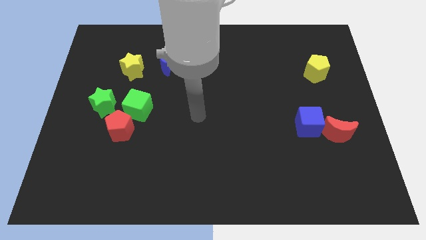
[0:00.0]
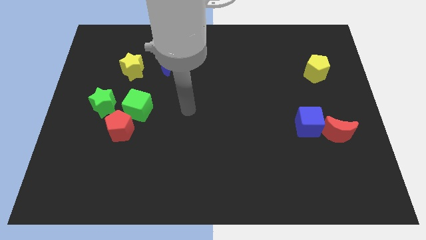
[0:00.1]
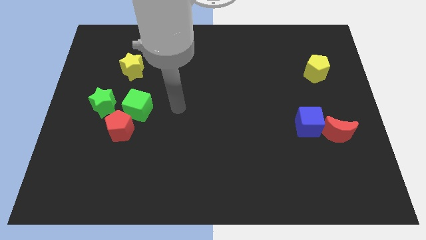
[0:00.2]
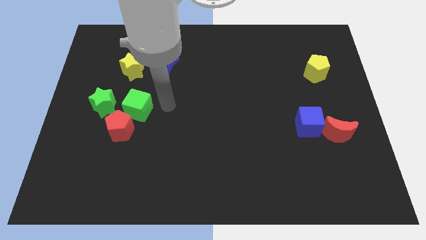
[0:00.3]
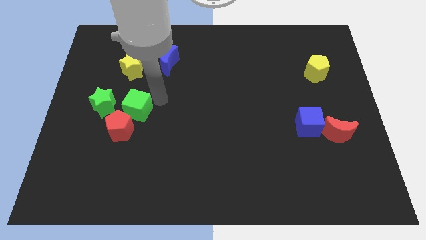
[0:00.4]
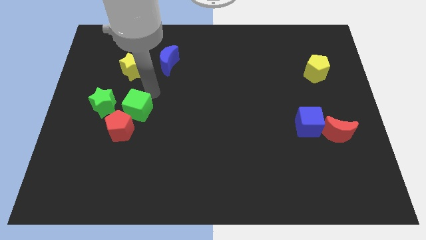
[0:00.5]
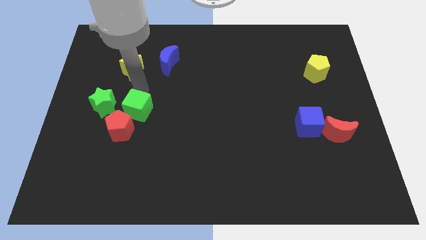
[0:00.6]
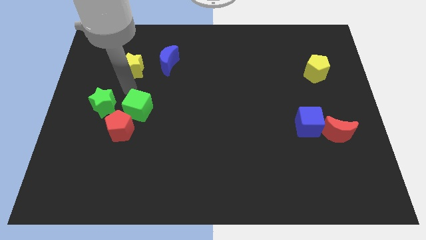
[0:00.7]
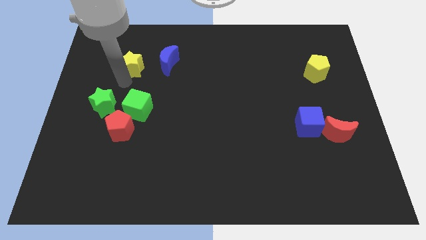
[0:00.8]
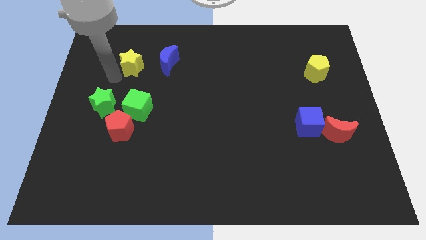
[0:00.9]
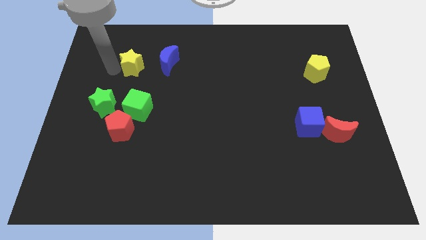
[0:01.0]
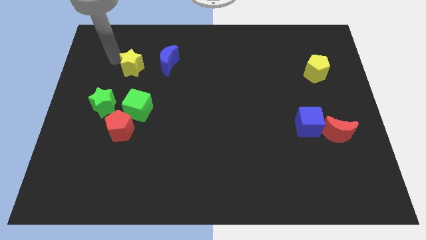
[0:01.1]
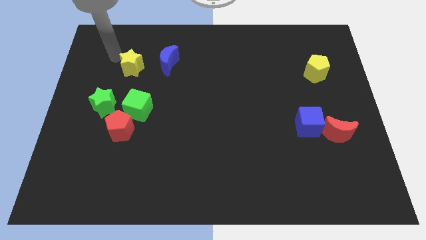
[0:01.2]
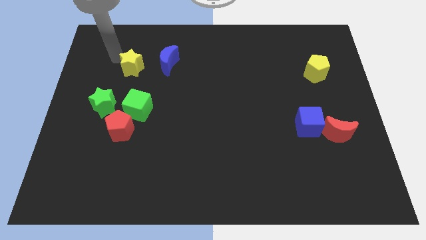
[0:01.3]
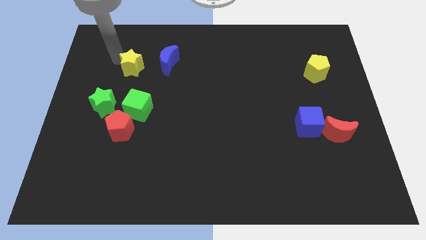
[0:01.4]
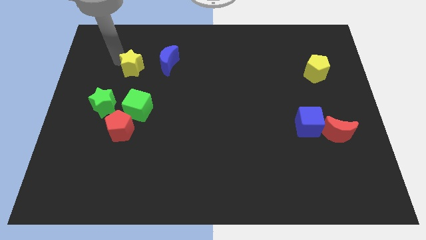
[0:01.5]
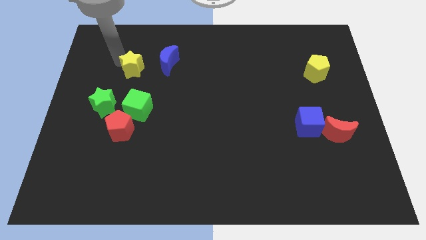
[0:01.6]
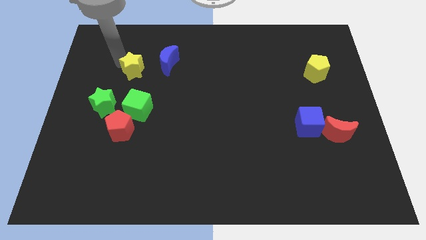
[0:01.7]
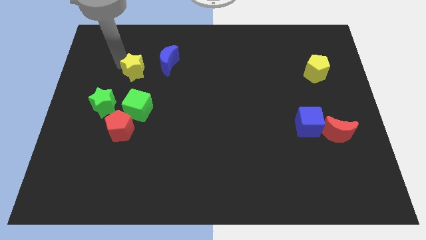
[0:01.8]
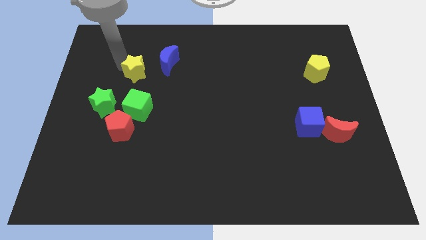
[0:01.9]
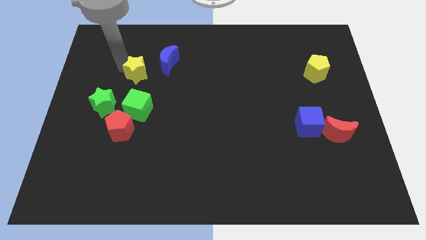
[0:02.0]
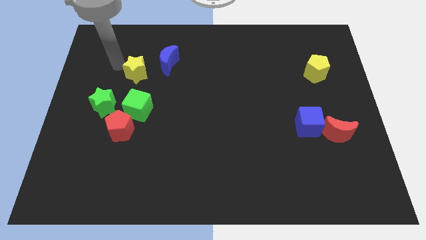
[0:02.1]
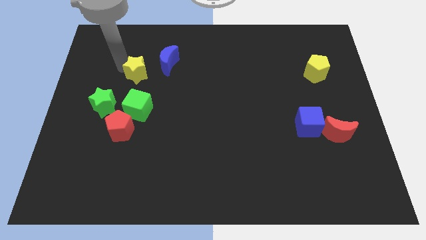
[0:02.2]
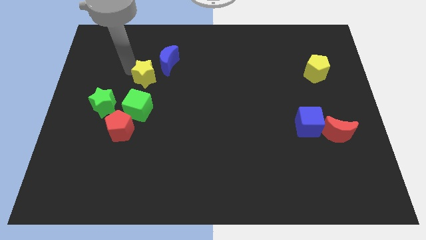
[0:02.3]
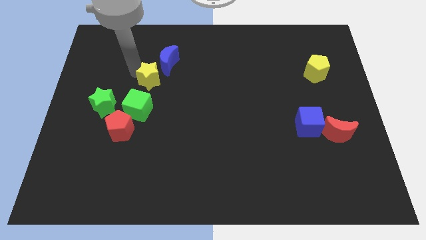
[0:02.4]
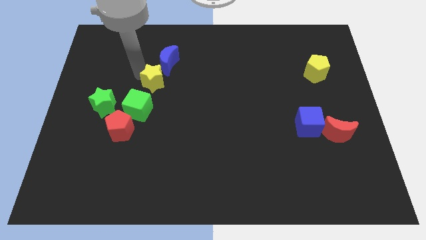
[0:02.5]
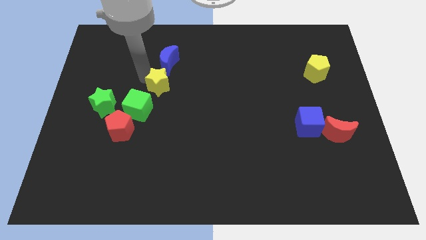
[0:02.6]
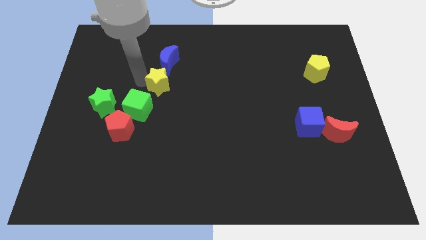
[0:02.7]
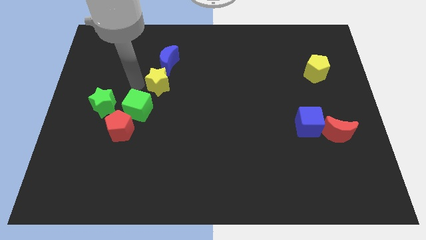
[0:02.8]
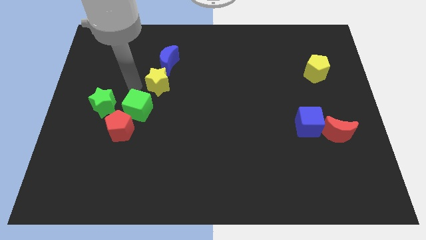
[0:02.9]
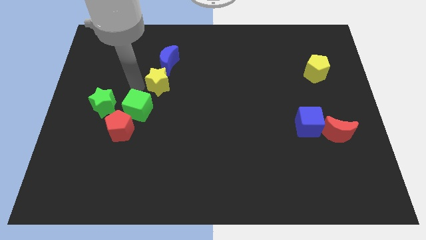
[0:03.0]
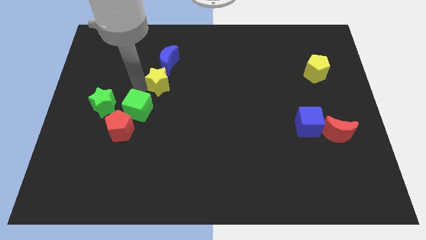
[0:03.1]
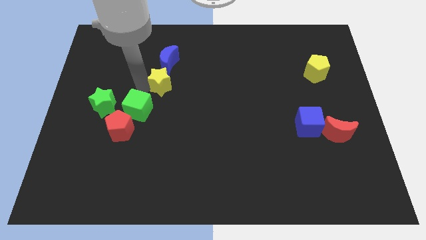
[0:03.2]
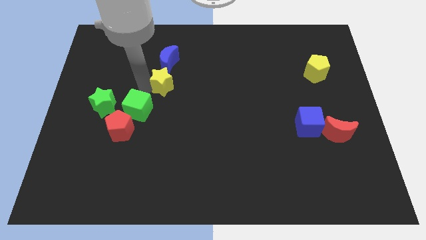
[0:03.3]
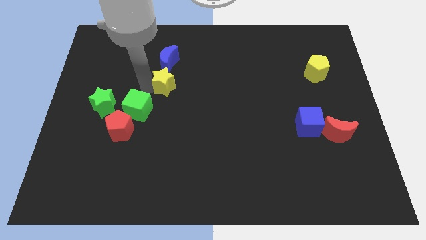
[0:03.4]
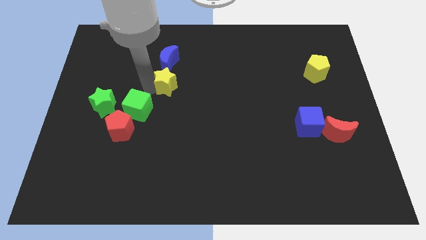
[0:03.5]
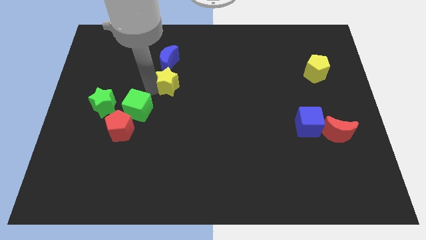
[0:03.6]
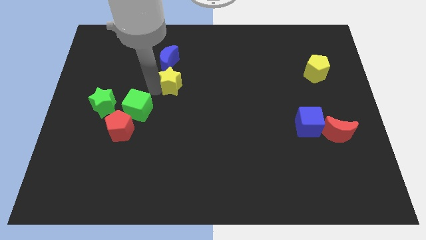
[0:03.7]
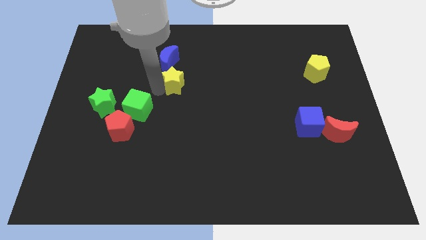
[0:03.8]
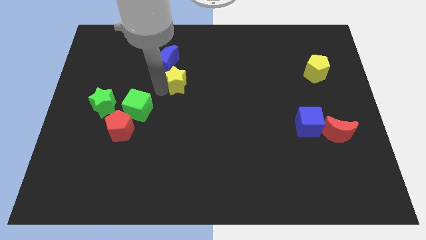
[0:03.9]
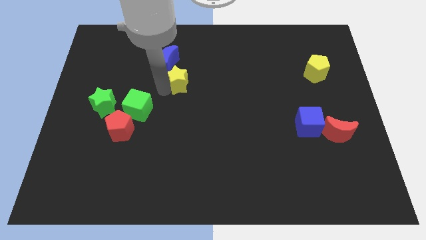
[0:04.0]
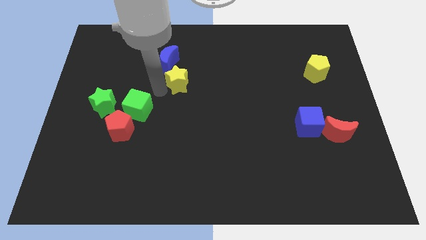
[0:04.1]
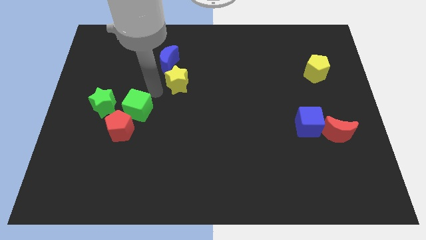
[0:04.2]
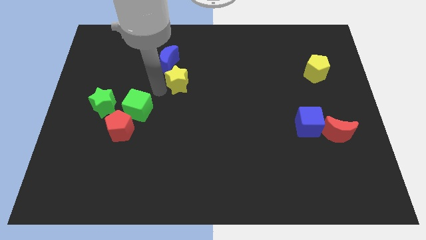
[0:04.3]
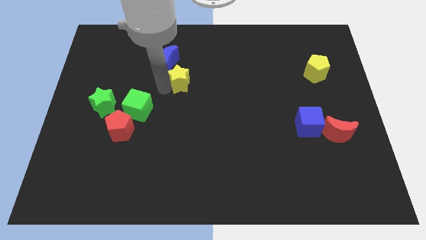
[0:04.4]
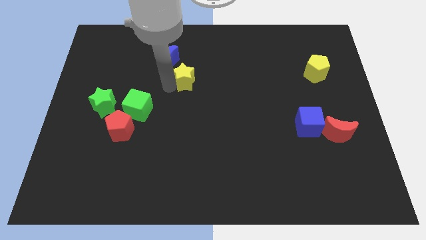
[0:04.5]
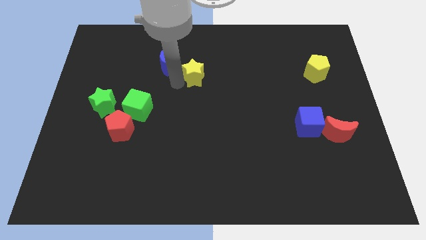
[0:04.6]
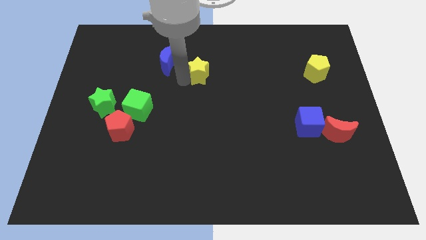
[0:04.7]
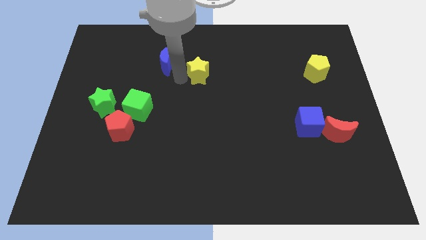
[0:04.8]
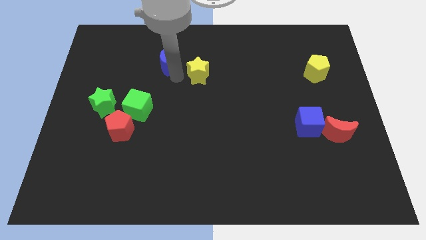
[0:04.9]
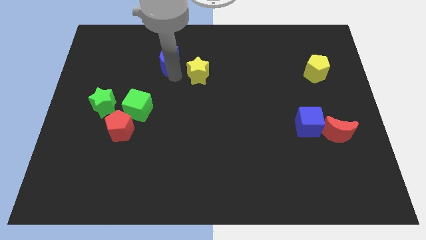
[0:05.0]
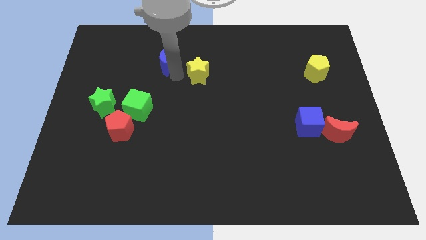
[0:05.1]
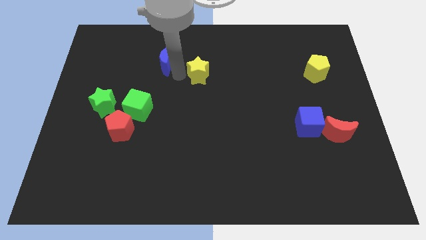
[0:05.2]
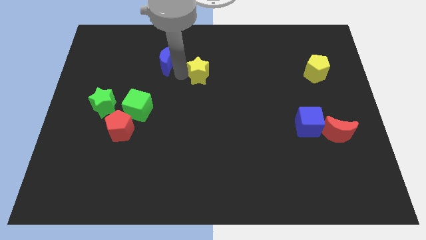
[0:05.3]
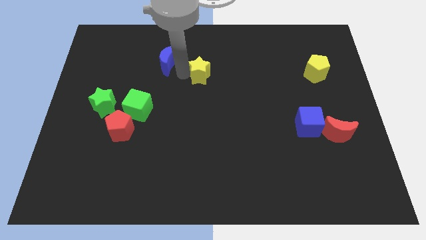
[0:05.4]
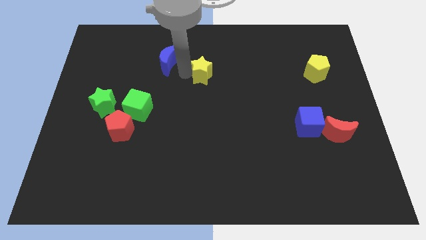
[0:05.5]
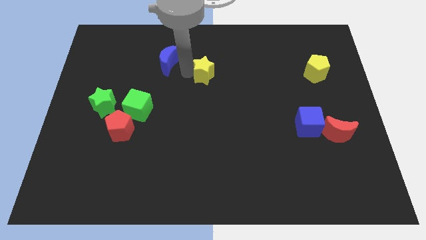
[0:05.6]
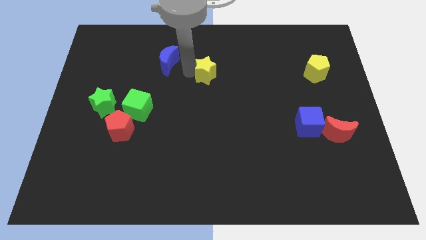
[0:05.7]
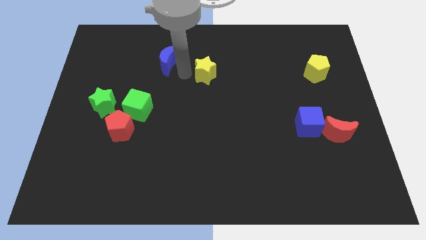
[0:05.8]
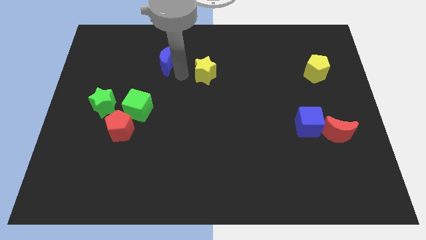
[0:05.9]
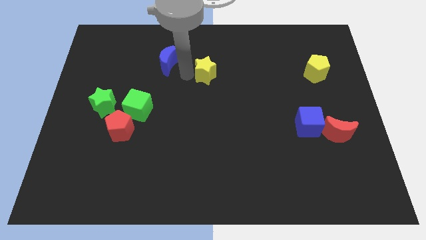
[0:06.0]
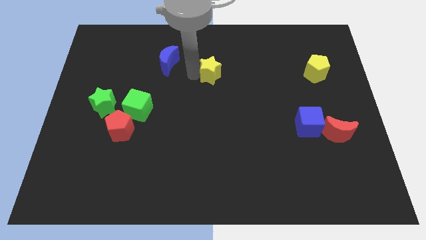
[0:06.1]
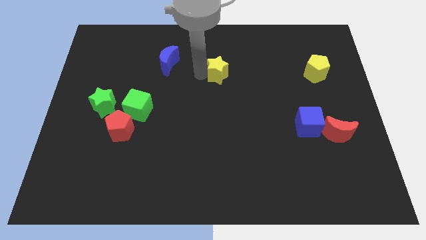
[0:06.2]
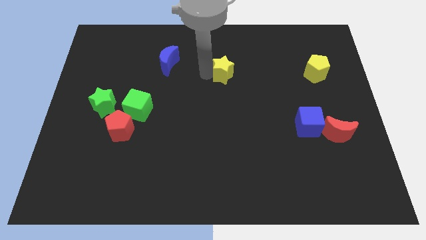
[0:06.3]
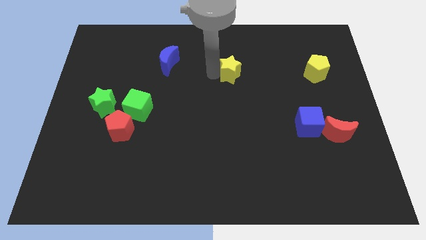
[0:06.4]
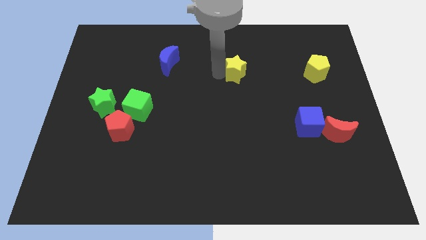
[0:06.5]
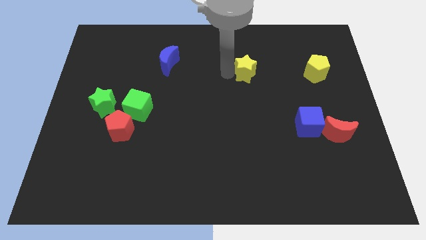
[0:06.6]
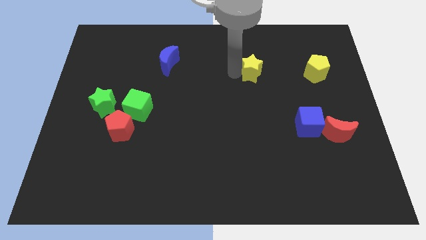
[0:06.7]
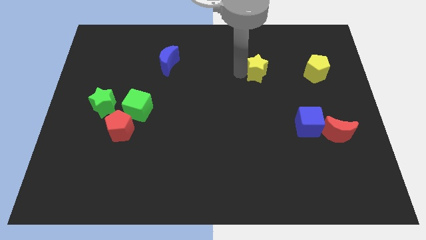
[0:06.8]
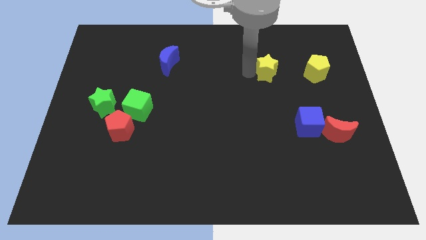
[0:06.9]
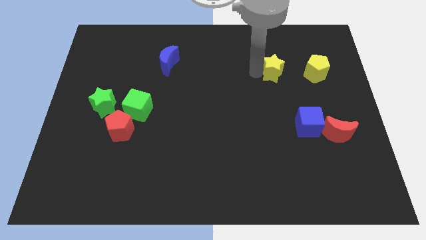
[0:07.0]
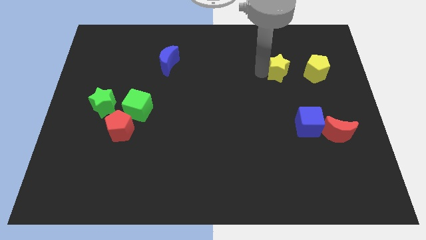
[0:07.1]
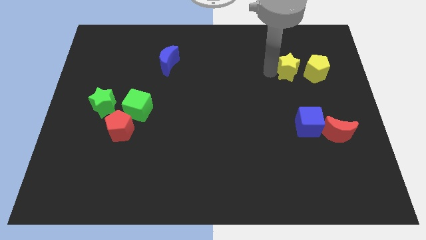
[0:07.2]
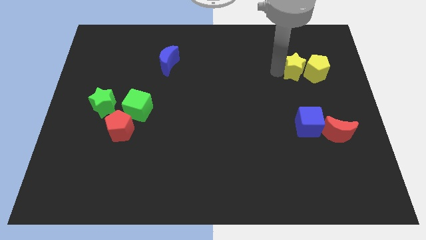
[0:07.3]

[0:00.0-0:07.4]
put the yellow star to the yellow pentagon

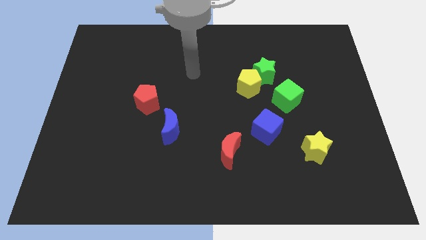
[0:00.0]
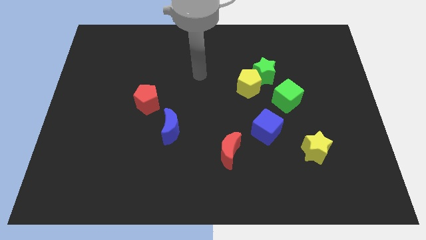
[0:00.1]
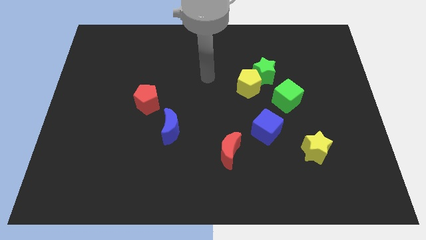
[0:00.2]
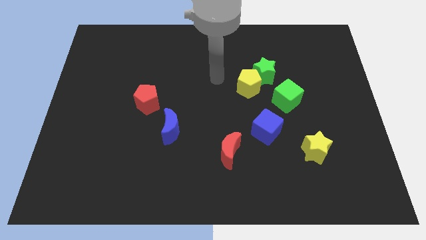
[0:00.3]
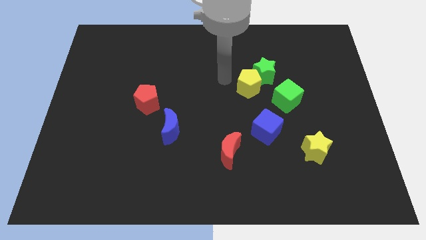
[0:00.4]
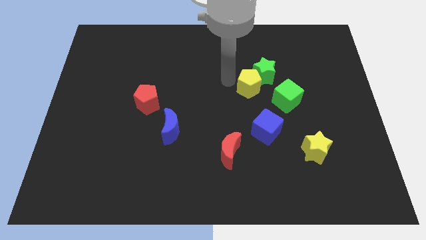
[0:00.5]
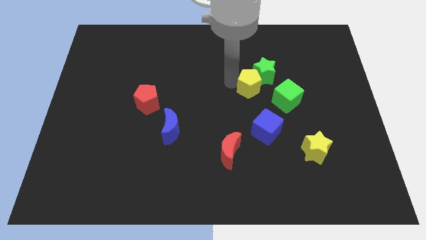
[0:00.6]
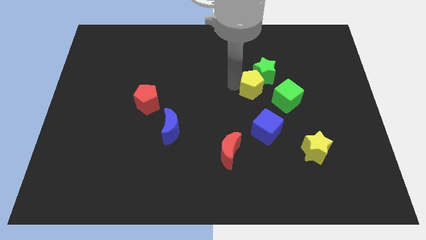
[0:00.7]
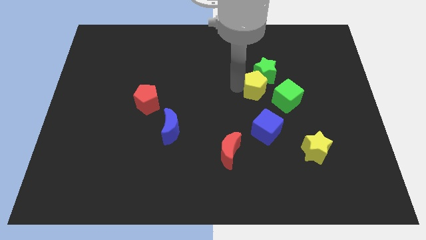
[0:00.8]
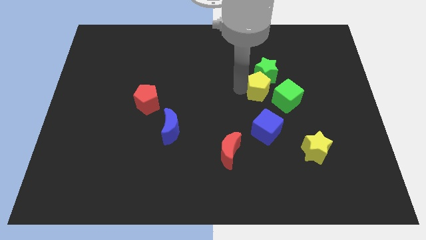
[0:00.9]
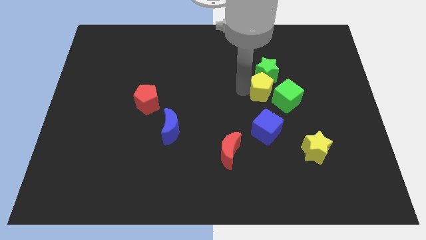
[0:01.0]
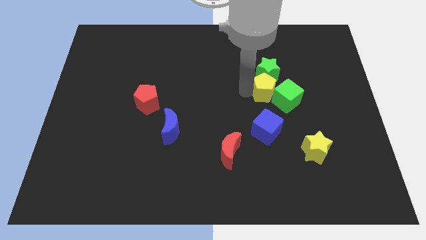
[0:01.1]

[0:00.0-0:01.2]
put the yellow pentagon to the green cube
